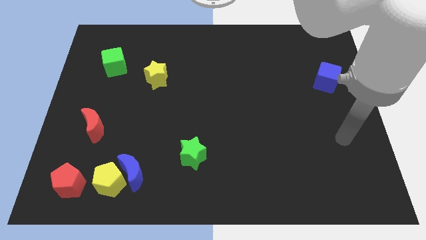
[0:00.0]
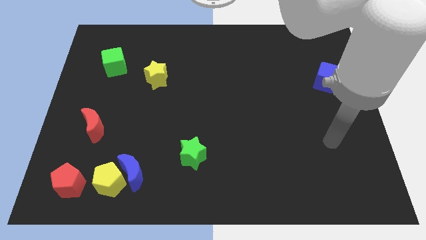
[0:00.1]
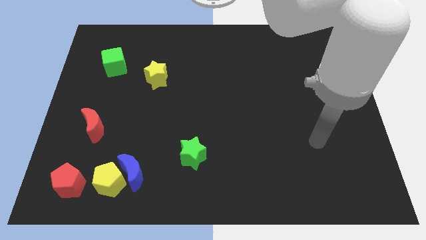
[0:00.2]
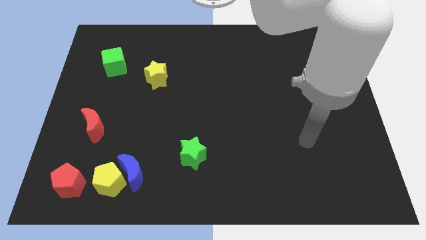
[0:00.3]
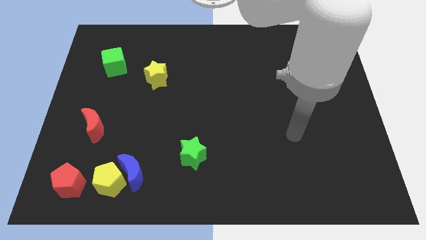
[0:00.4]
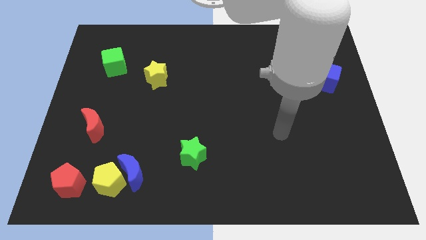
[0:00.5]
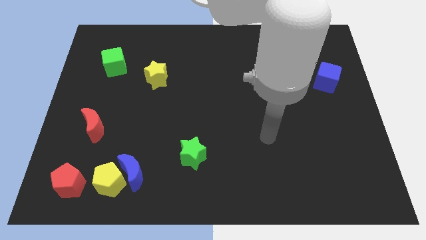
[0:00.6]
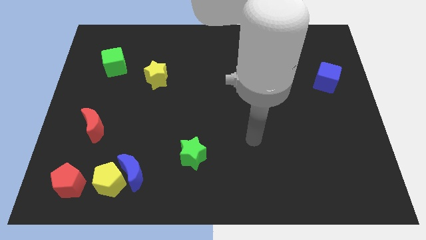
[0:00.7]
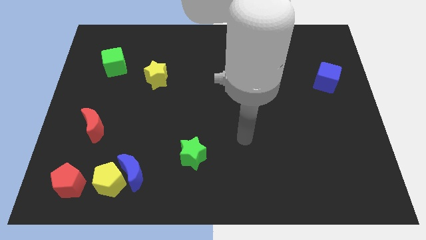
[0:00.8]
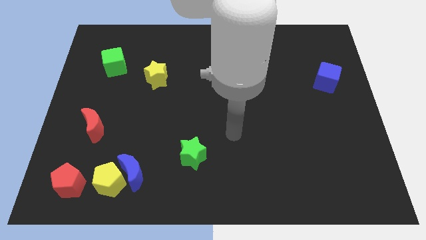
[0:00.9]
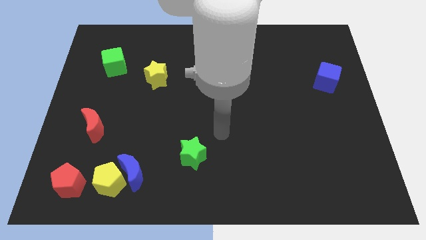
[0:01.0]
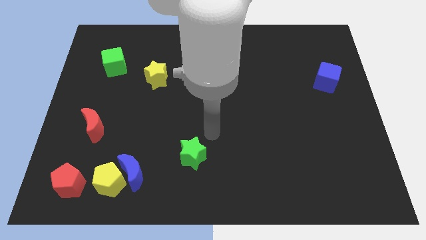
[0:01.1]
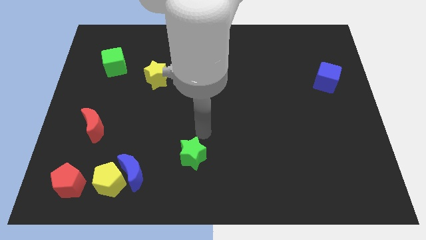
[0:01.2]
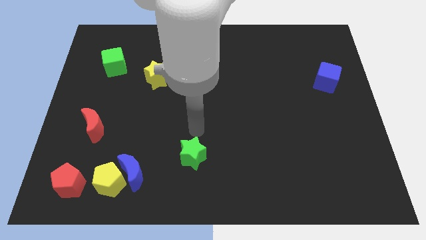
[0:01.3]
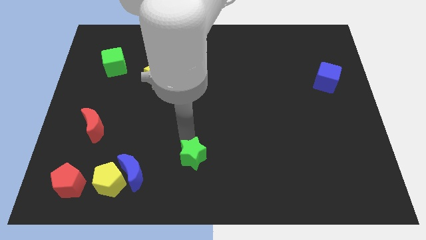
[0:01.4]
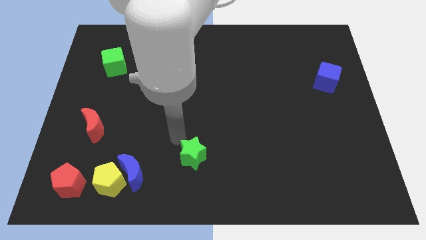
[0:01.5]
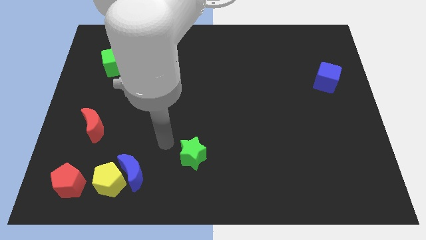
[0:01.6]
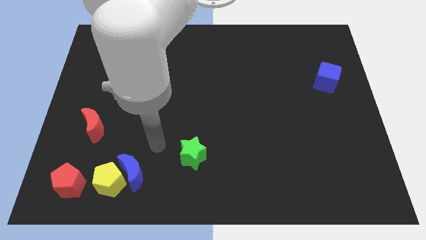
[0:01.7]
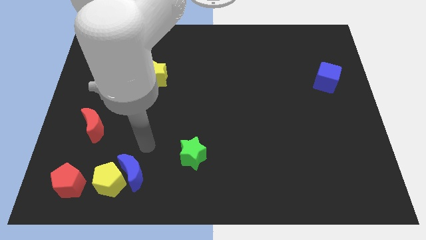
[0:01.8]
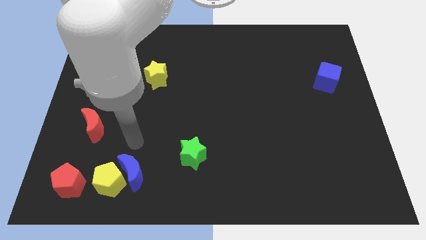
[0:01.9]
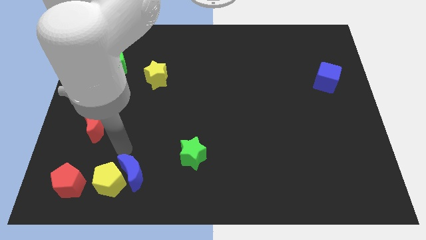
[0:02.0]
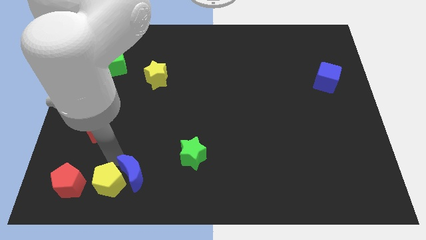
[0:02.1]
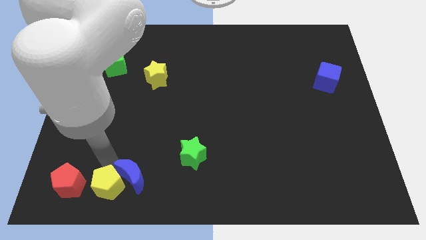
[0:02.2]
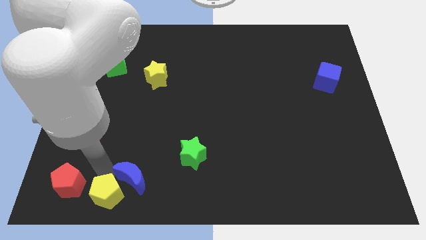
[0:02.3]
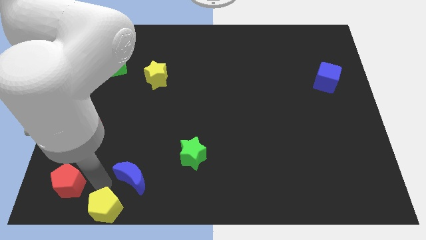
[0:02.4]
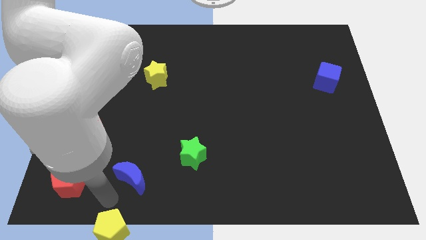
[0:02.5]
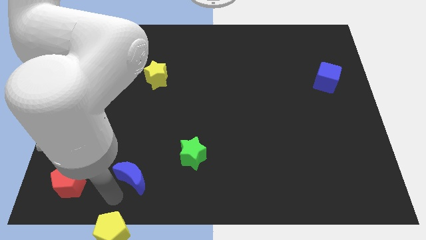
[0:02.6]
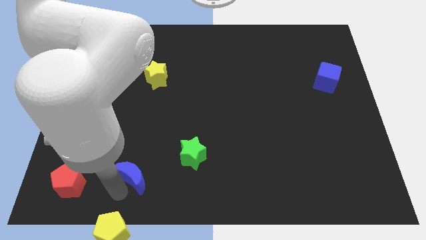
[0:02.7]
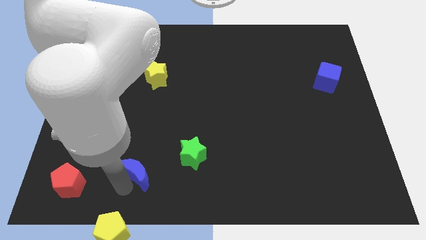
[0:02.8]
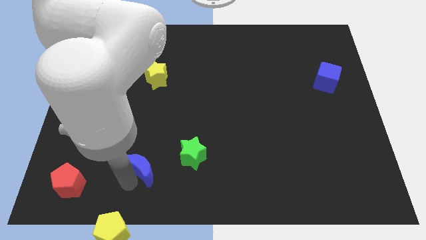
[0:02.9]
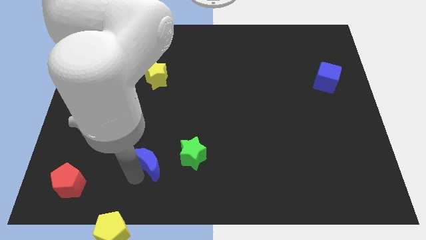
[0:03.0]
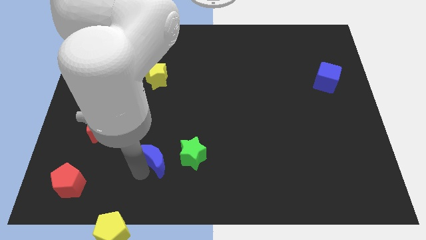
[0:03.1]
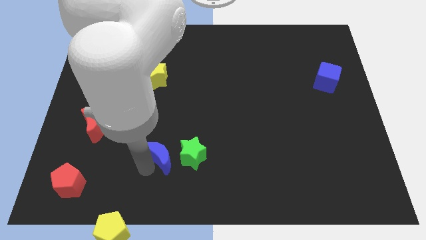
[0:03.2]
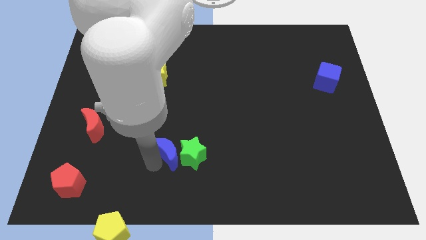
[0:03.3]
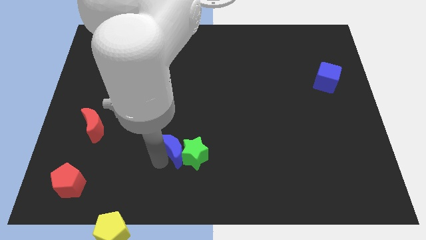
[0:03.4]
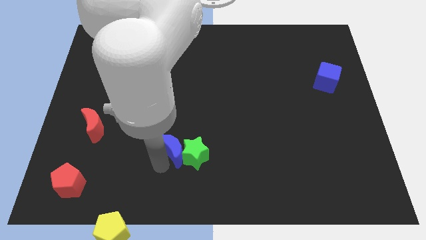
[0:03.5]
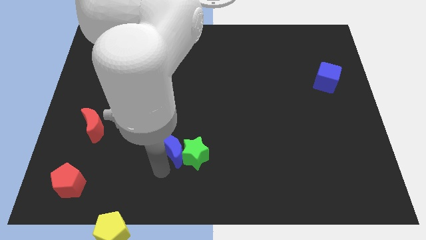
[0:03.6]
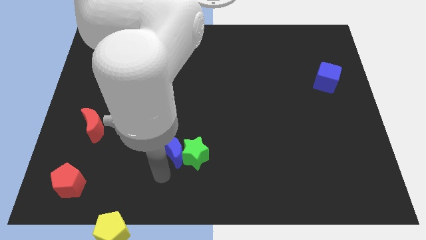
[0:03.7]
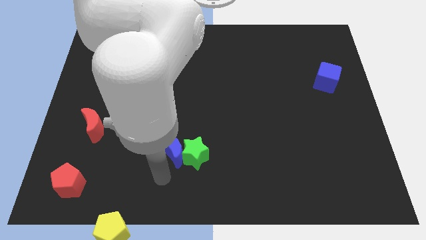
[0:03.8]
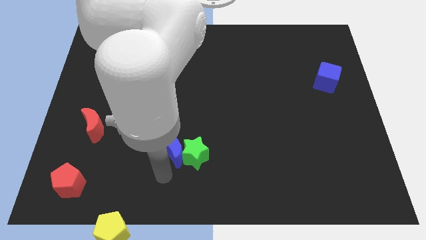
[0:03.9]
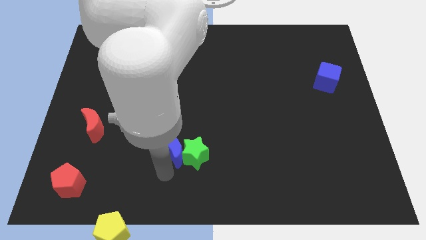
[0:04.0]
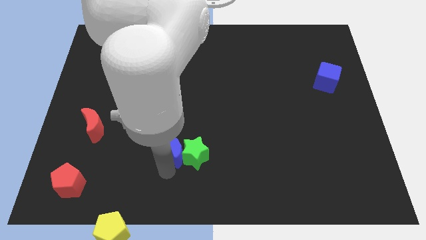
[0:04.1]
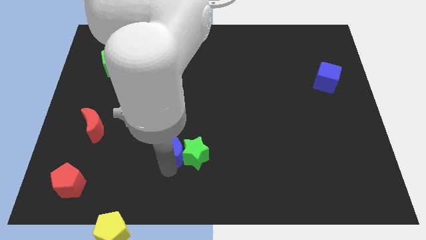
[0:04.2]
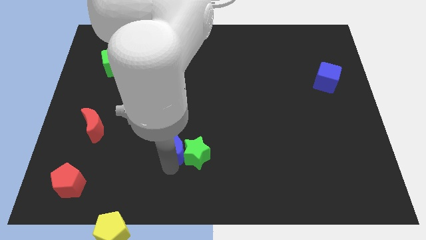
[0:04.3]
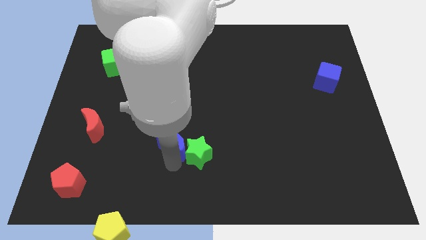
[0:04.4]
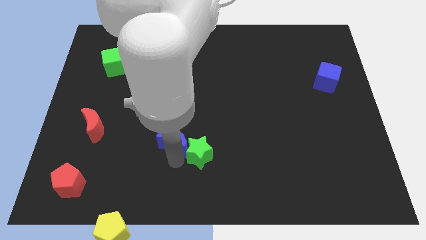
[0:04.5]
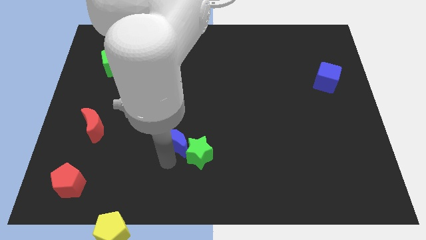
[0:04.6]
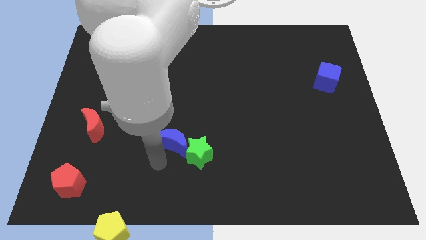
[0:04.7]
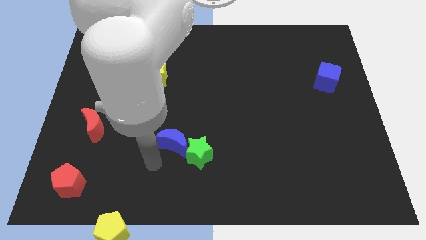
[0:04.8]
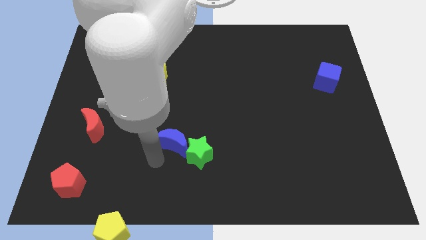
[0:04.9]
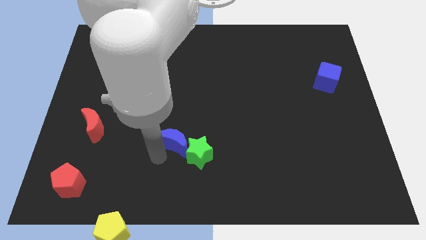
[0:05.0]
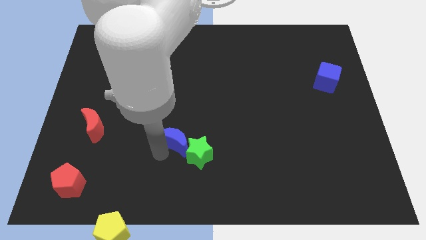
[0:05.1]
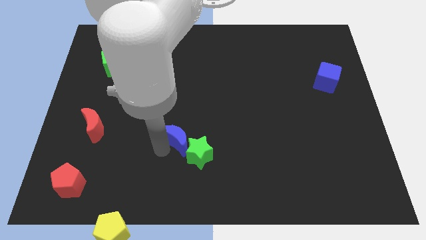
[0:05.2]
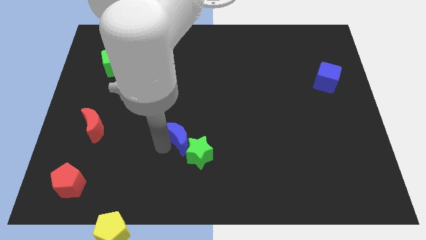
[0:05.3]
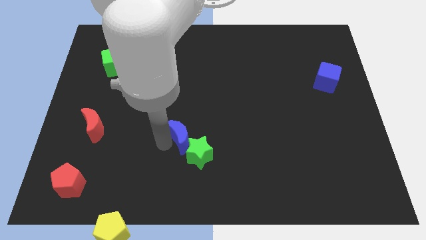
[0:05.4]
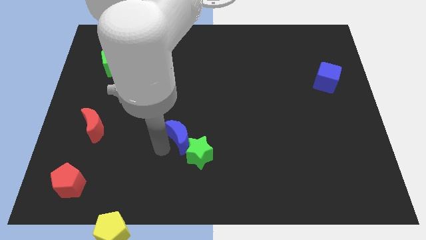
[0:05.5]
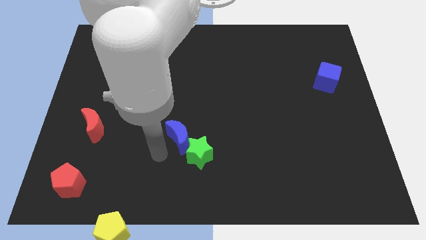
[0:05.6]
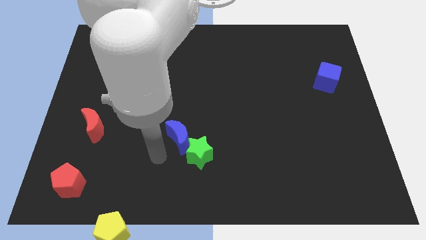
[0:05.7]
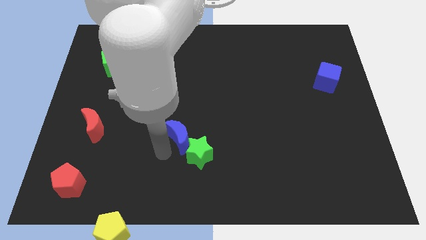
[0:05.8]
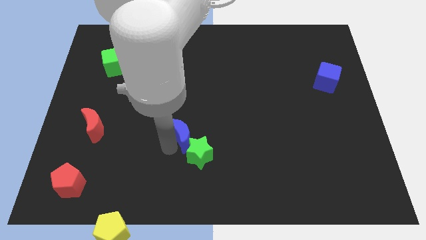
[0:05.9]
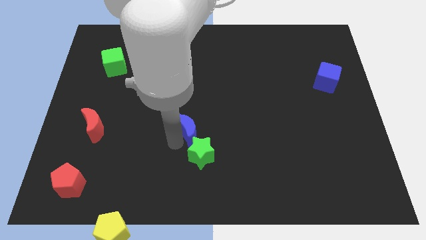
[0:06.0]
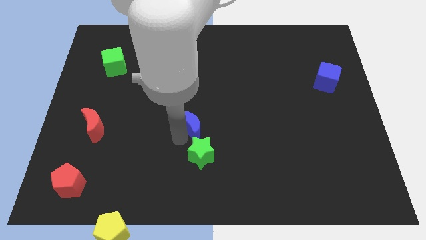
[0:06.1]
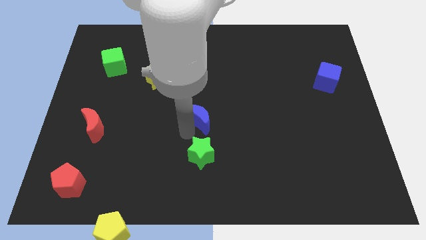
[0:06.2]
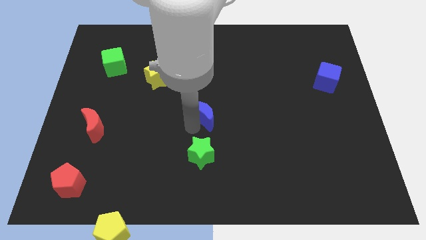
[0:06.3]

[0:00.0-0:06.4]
slide the blue moon diagonally upwards and right

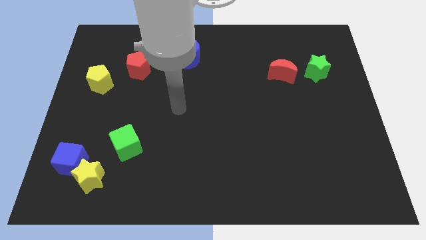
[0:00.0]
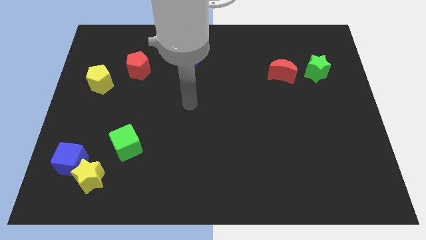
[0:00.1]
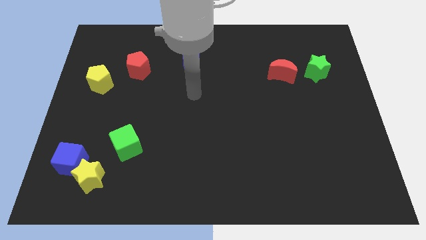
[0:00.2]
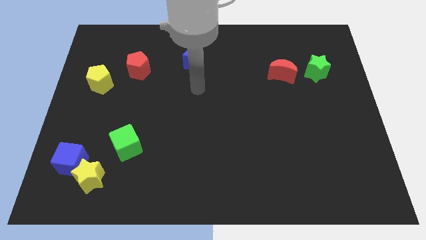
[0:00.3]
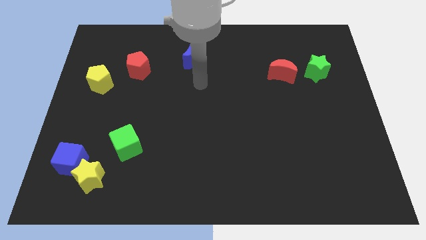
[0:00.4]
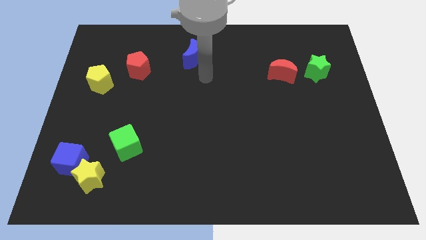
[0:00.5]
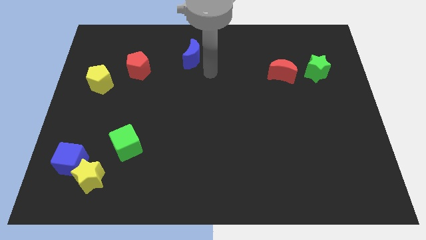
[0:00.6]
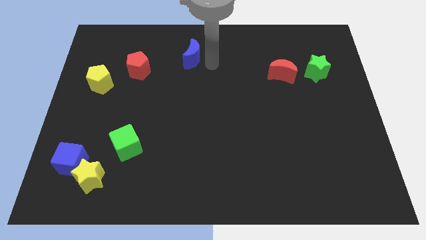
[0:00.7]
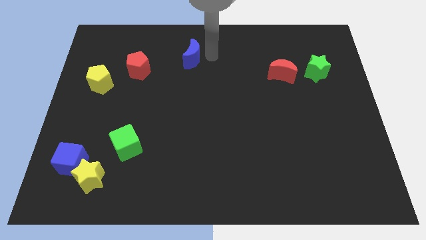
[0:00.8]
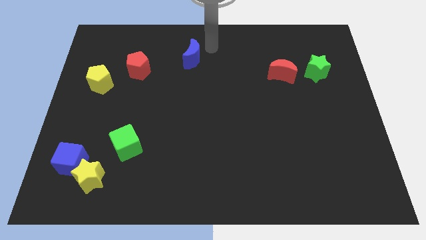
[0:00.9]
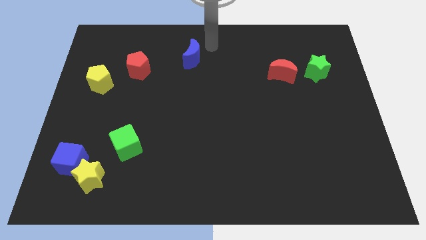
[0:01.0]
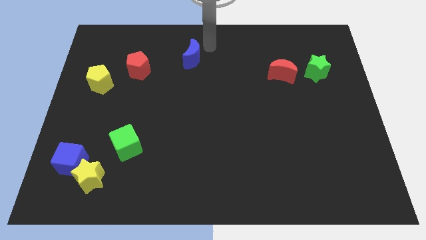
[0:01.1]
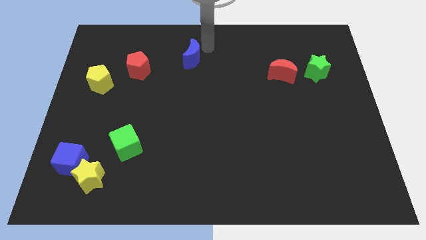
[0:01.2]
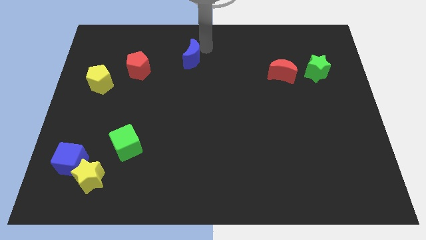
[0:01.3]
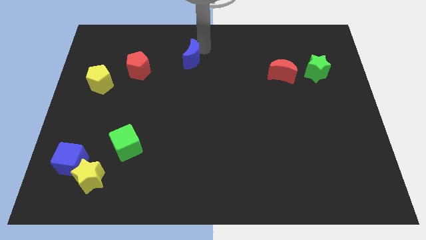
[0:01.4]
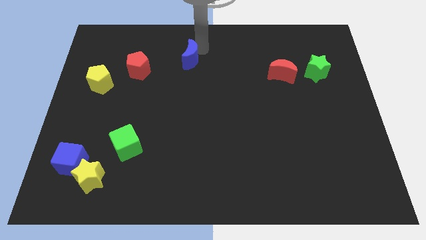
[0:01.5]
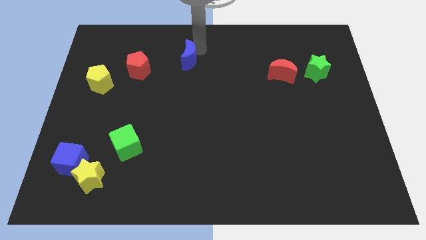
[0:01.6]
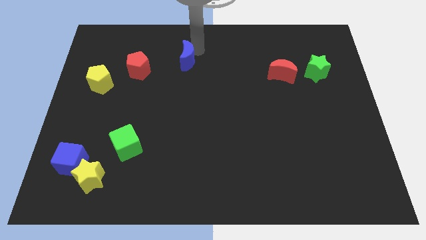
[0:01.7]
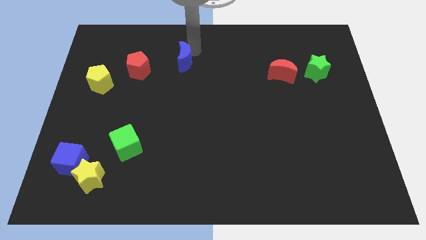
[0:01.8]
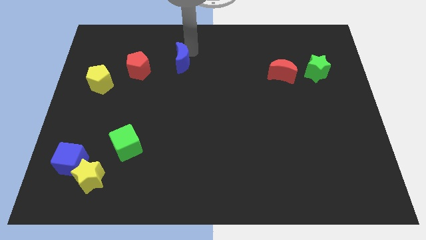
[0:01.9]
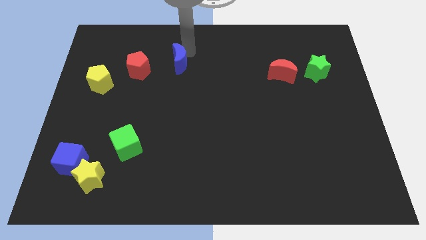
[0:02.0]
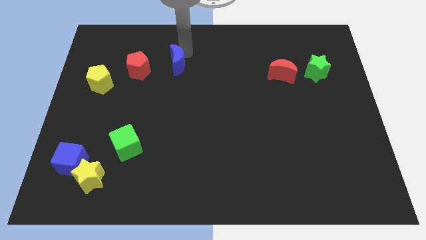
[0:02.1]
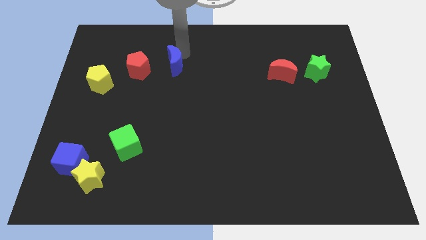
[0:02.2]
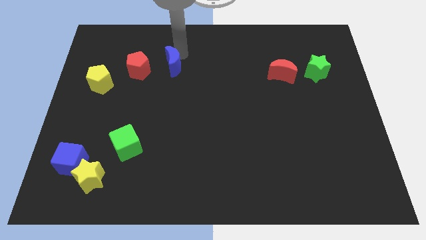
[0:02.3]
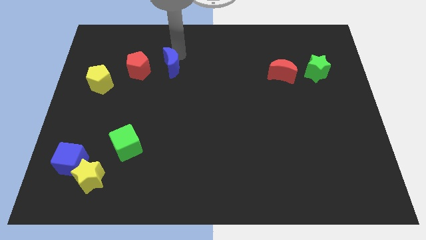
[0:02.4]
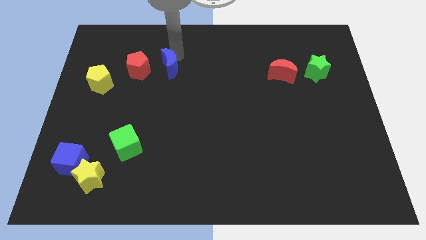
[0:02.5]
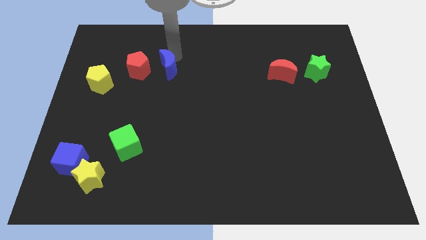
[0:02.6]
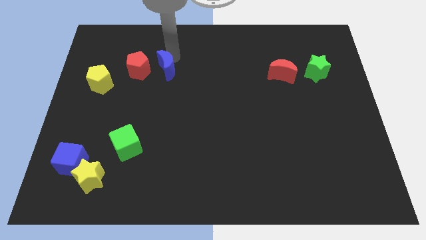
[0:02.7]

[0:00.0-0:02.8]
move the blue moon diagonally down and left somewhat
